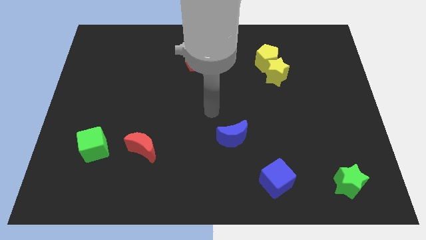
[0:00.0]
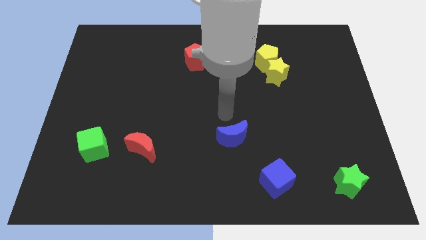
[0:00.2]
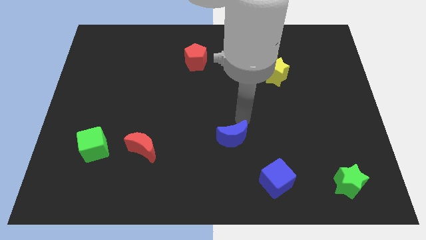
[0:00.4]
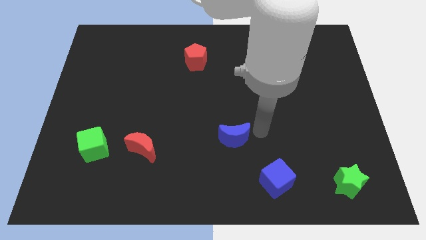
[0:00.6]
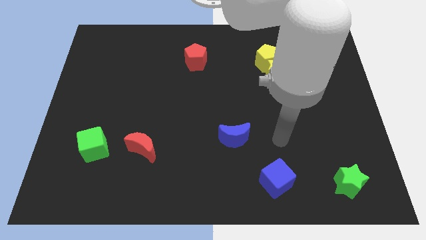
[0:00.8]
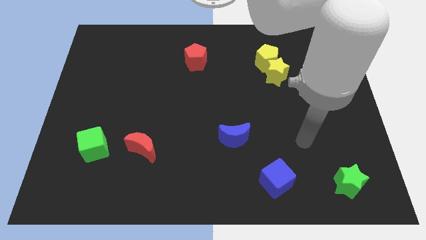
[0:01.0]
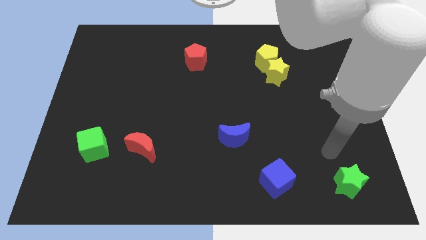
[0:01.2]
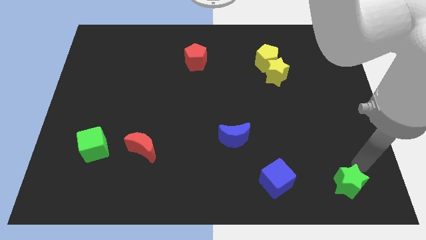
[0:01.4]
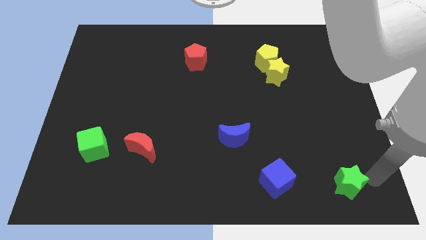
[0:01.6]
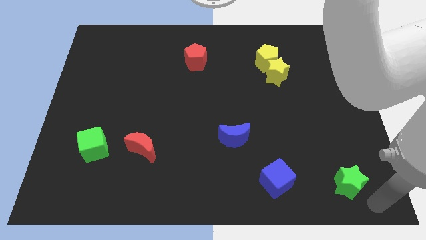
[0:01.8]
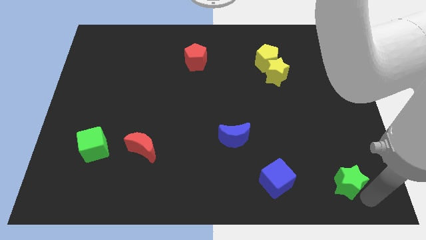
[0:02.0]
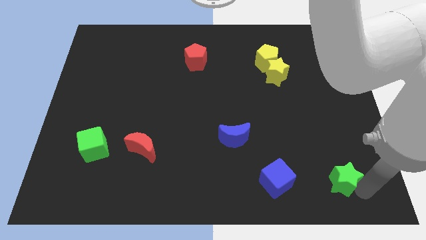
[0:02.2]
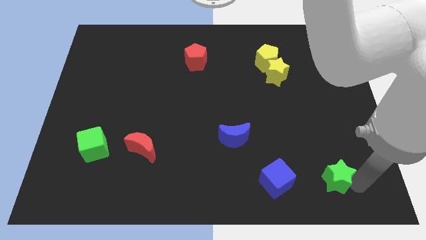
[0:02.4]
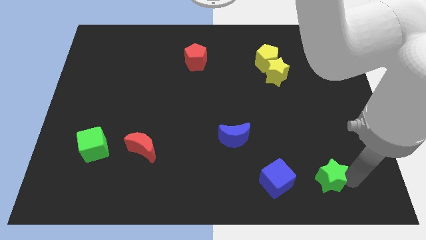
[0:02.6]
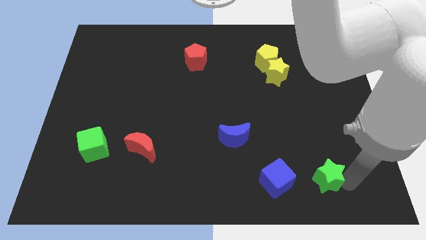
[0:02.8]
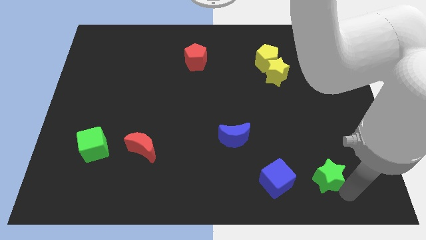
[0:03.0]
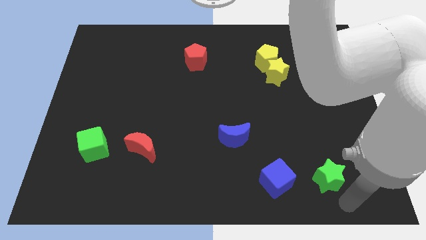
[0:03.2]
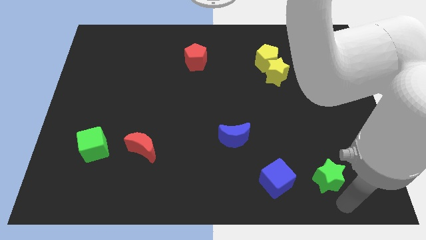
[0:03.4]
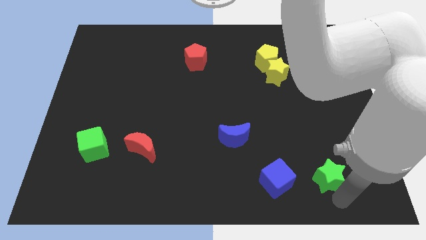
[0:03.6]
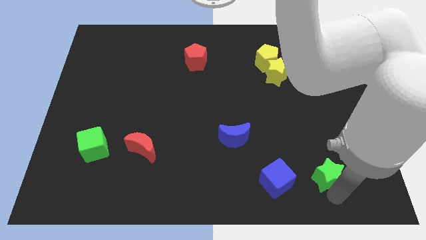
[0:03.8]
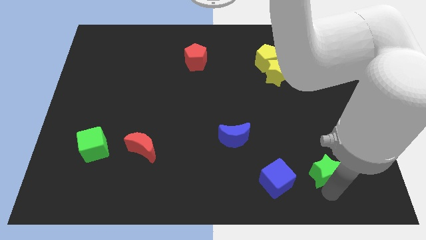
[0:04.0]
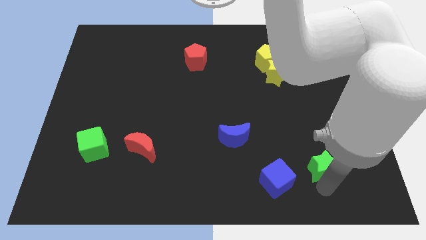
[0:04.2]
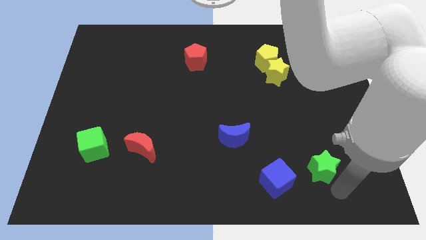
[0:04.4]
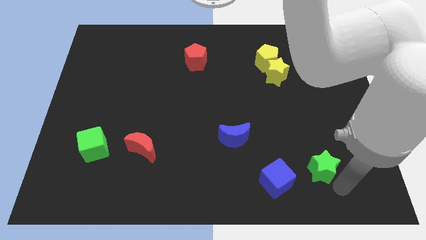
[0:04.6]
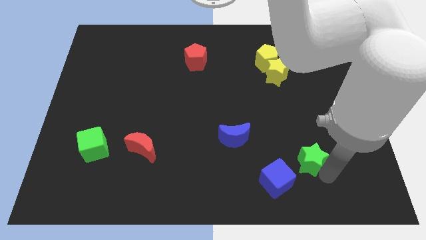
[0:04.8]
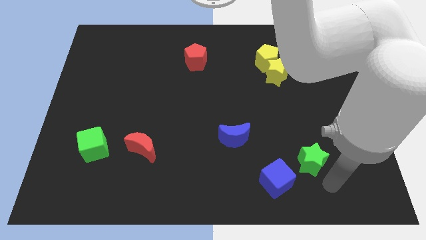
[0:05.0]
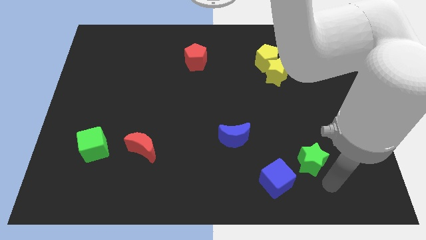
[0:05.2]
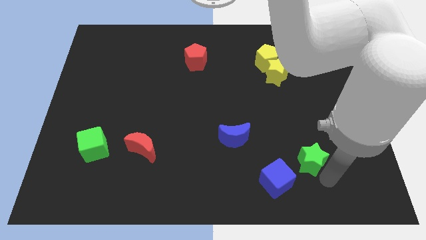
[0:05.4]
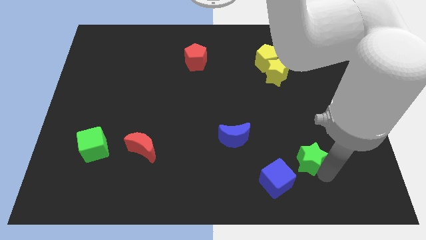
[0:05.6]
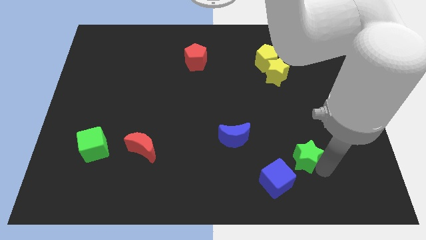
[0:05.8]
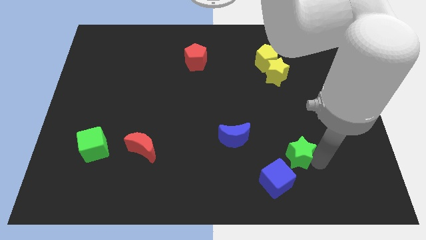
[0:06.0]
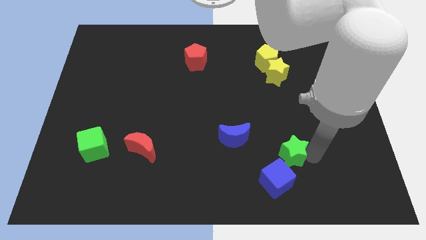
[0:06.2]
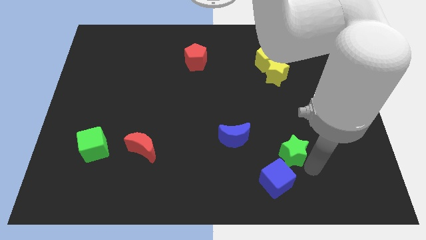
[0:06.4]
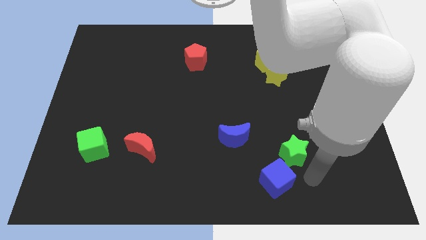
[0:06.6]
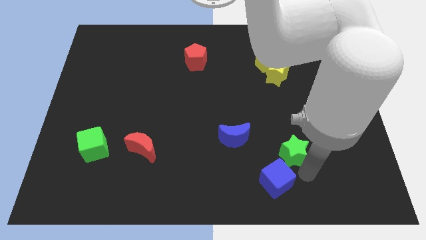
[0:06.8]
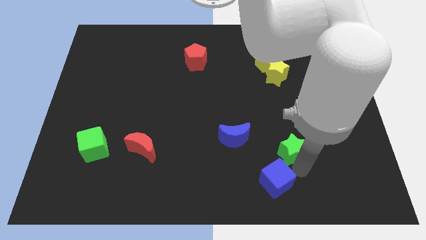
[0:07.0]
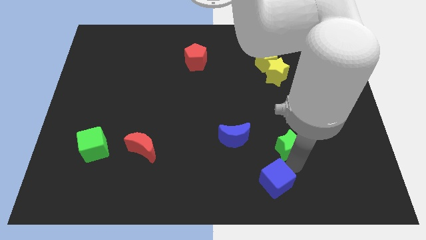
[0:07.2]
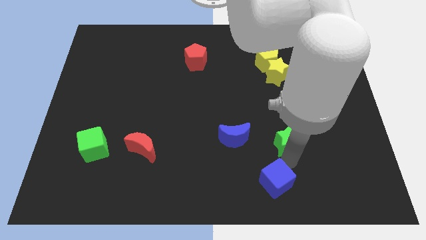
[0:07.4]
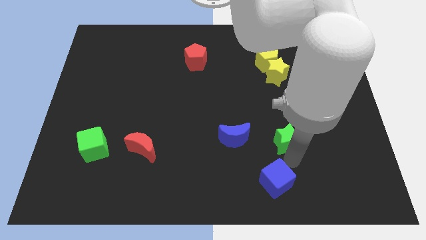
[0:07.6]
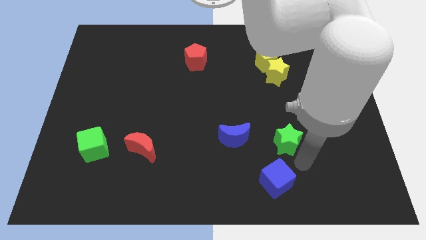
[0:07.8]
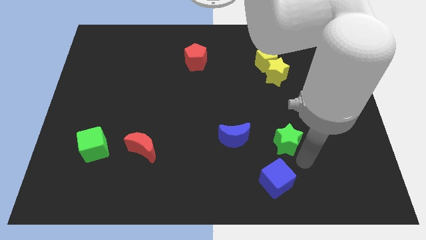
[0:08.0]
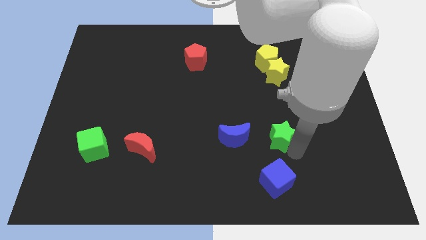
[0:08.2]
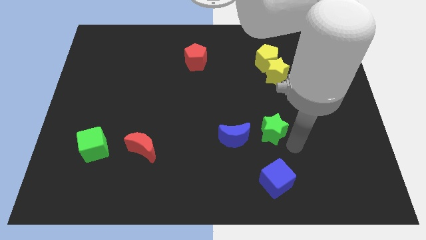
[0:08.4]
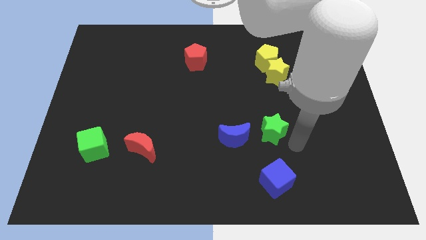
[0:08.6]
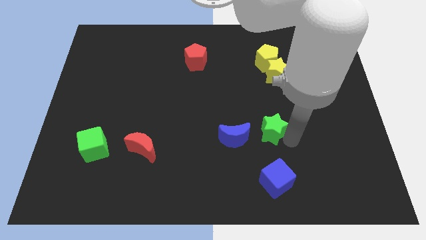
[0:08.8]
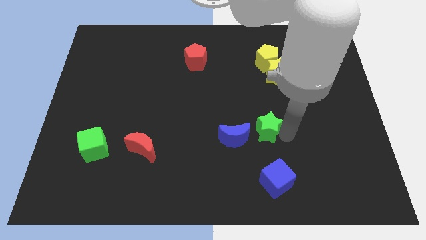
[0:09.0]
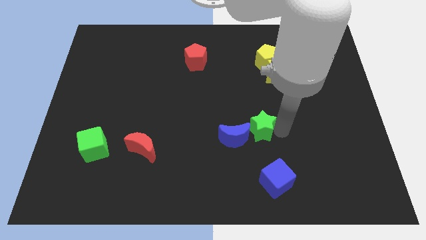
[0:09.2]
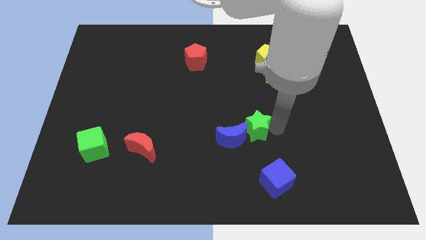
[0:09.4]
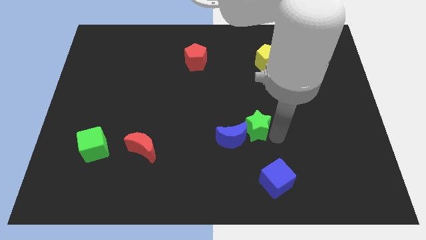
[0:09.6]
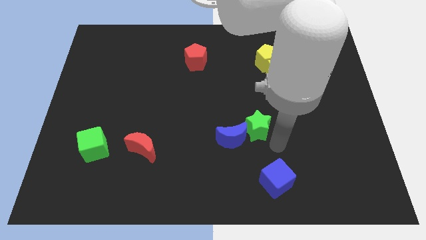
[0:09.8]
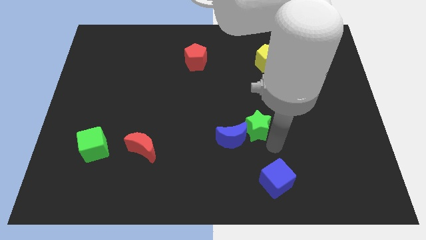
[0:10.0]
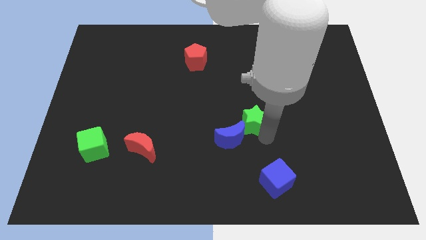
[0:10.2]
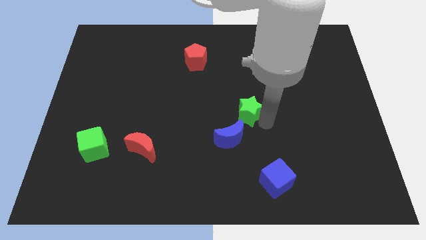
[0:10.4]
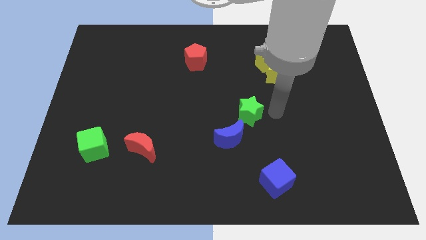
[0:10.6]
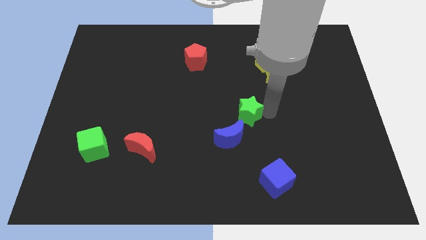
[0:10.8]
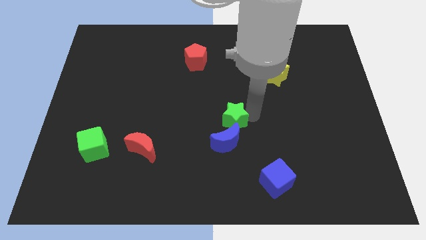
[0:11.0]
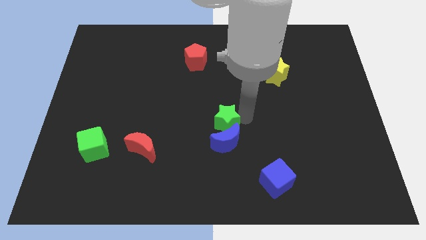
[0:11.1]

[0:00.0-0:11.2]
push the green star to the top left of the blue moon

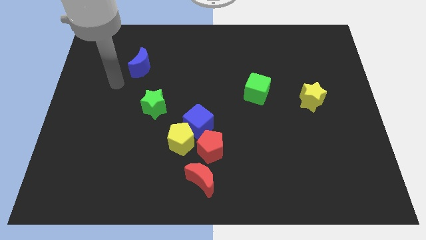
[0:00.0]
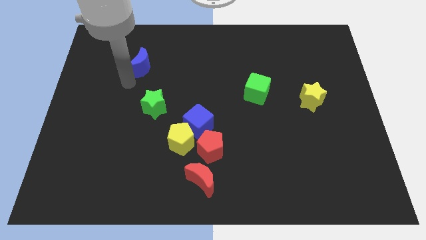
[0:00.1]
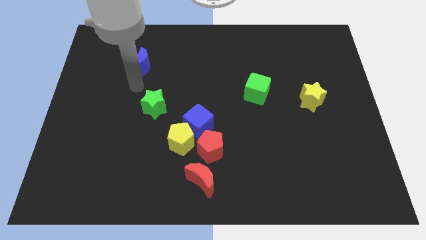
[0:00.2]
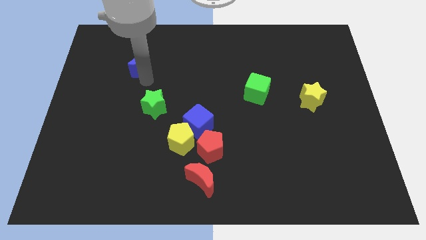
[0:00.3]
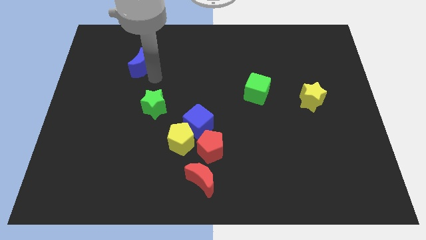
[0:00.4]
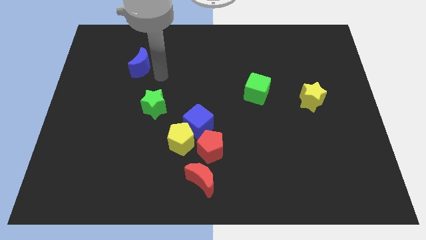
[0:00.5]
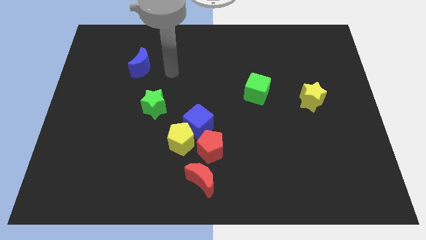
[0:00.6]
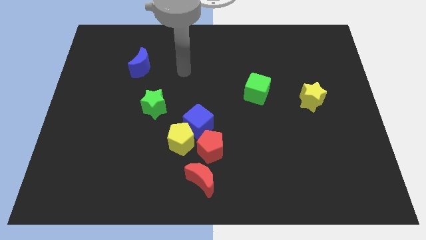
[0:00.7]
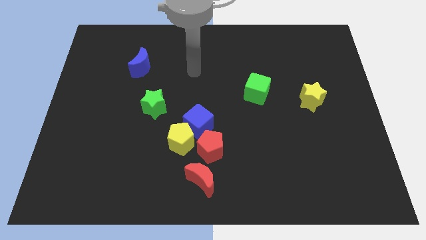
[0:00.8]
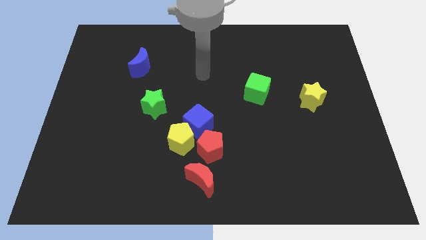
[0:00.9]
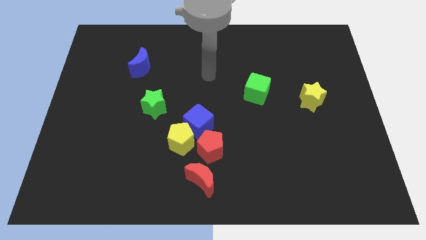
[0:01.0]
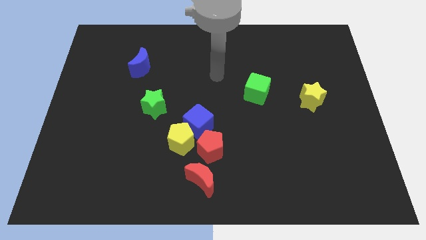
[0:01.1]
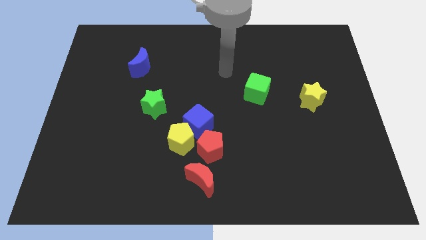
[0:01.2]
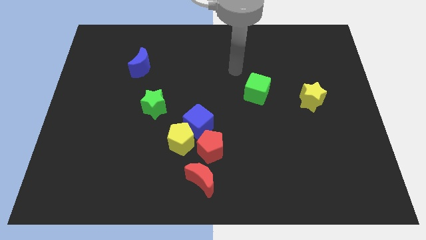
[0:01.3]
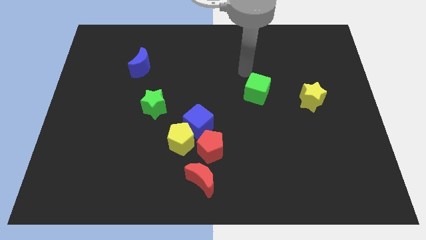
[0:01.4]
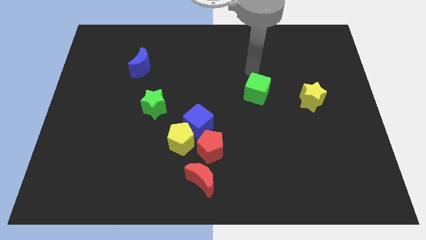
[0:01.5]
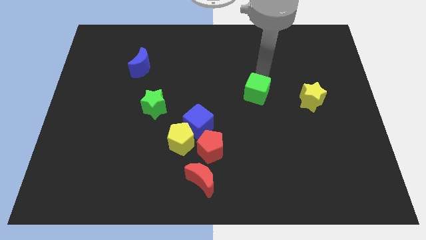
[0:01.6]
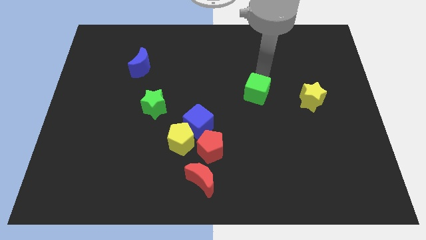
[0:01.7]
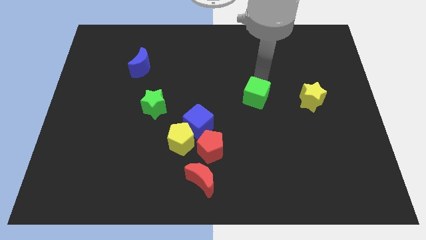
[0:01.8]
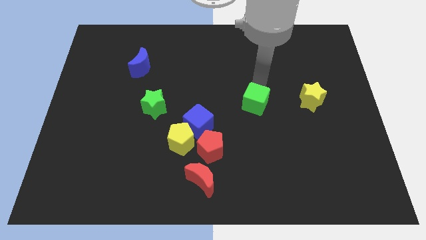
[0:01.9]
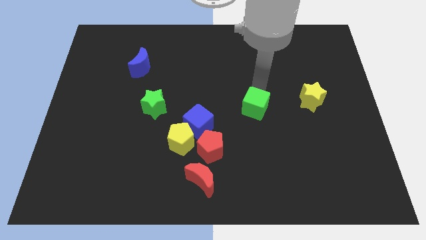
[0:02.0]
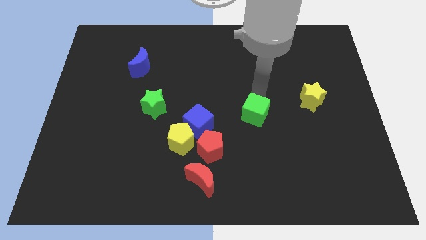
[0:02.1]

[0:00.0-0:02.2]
push the green cube to the right of the blue cube
